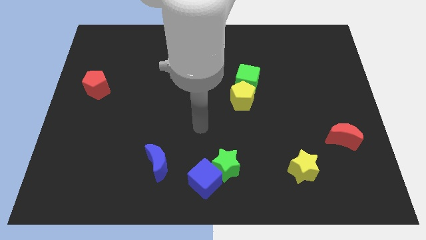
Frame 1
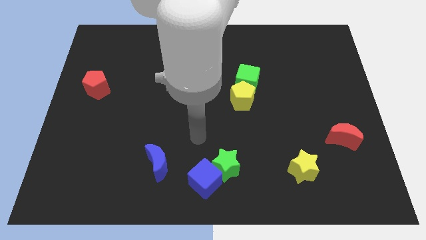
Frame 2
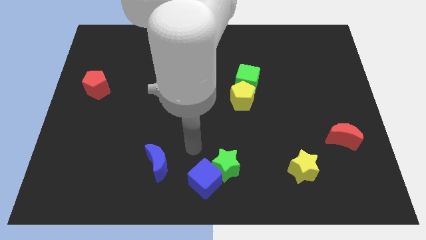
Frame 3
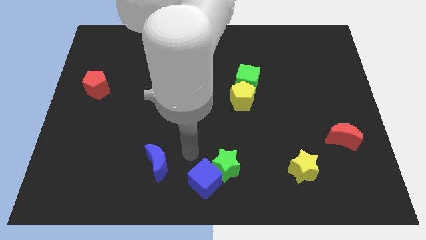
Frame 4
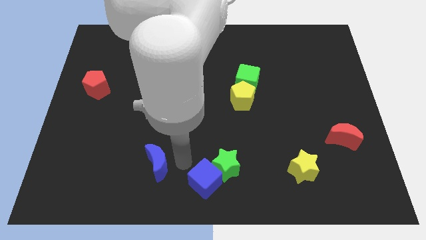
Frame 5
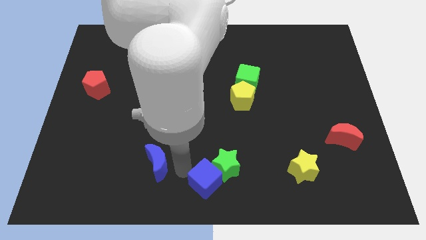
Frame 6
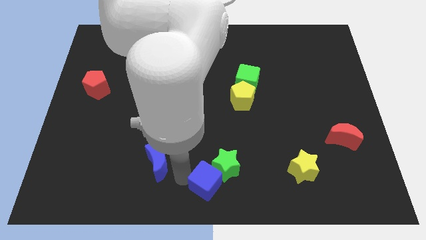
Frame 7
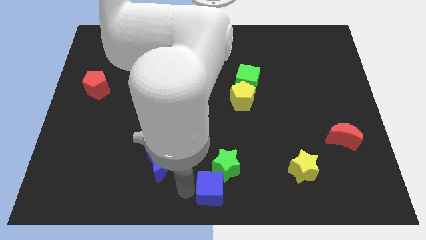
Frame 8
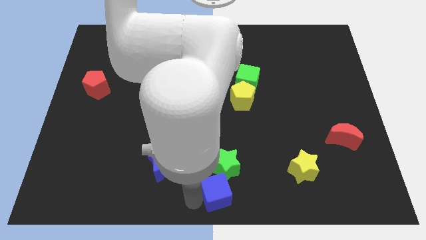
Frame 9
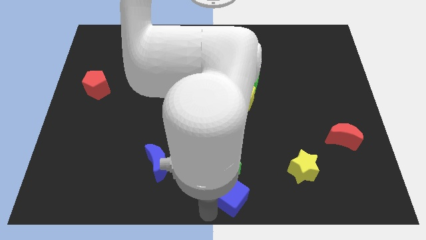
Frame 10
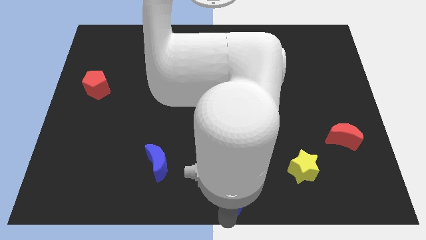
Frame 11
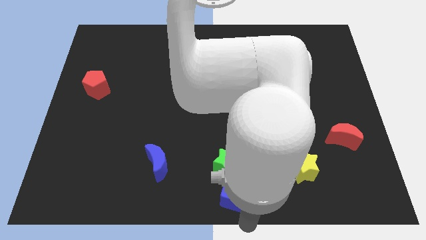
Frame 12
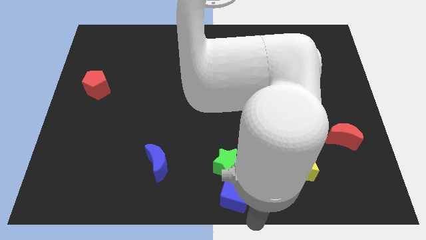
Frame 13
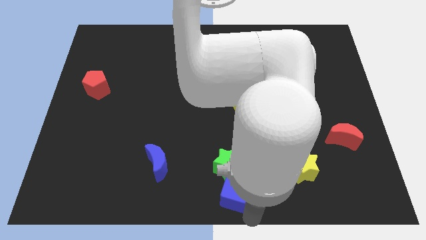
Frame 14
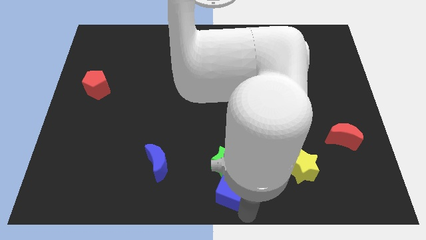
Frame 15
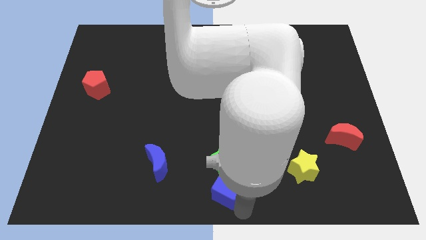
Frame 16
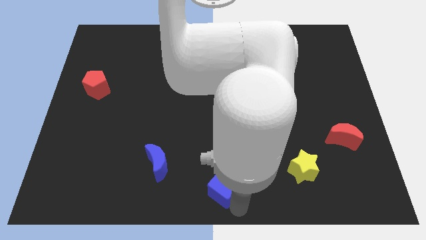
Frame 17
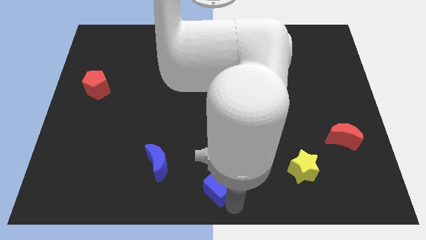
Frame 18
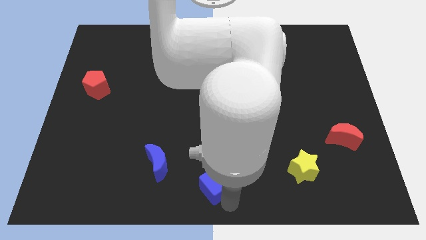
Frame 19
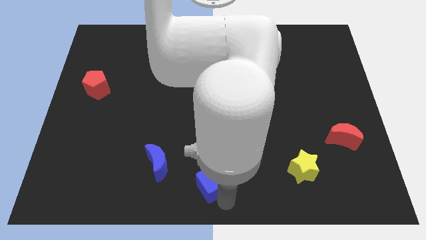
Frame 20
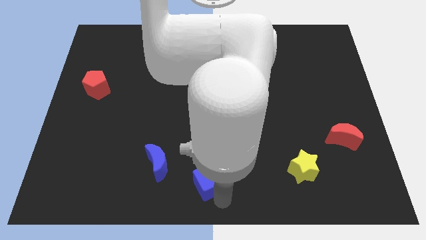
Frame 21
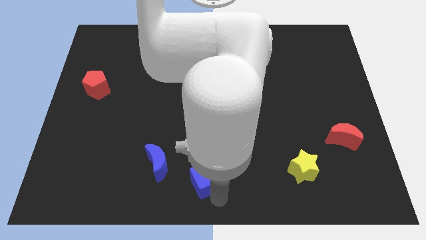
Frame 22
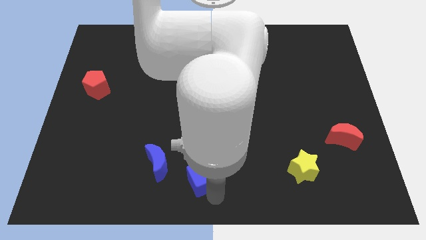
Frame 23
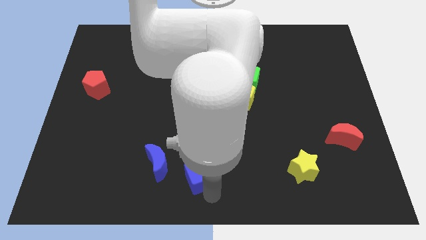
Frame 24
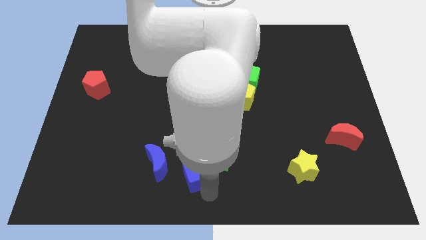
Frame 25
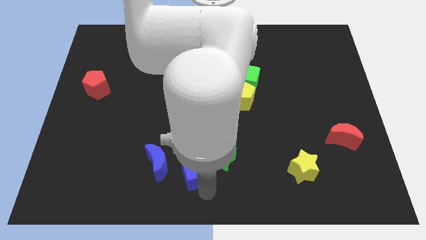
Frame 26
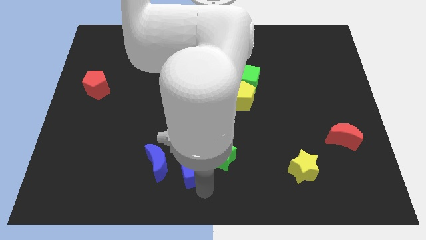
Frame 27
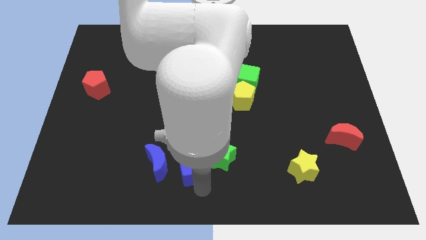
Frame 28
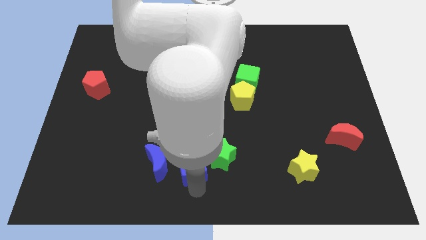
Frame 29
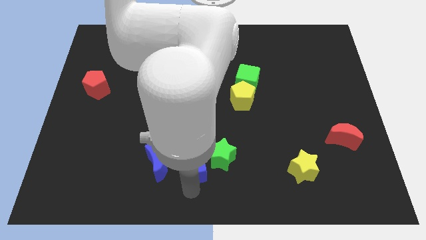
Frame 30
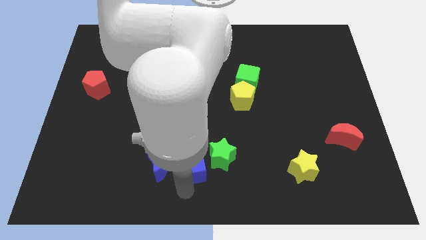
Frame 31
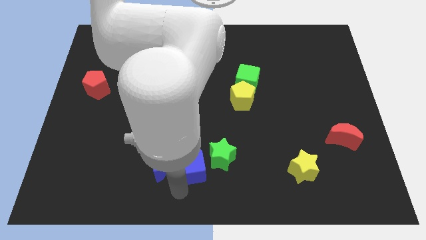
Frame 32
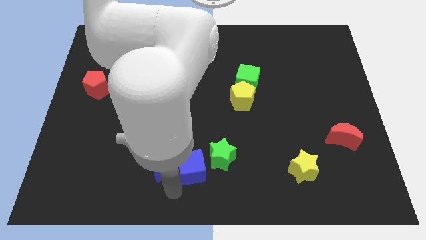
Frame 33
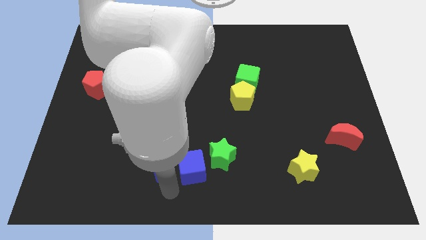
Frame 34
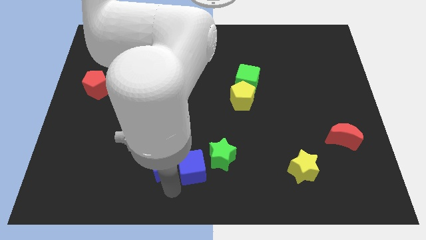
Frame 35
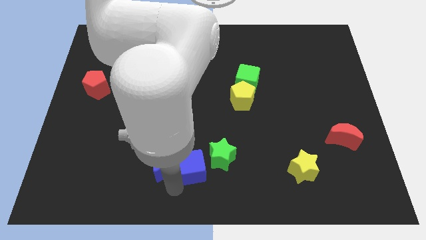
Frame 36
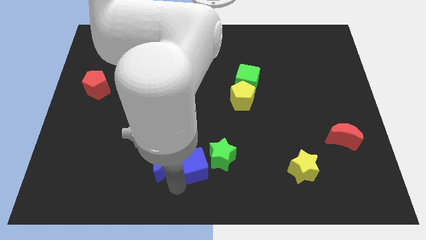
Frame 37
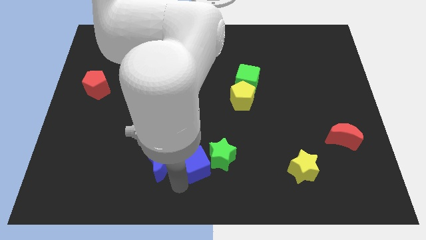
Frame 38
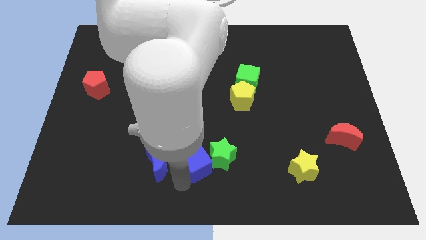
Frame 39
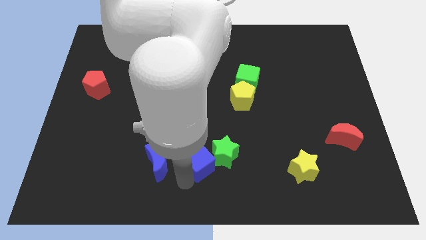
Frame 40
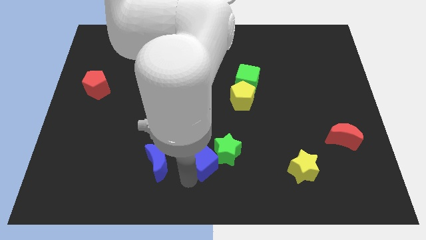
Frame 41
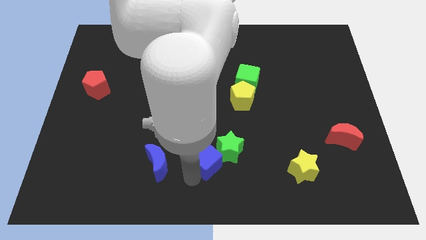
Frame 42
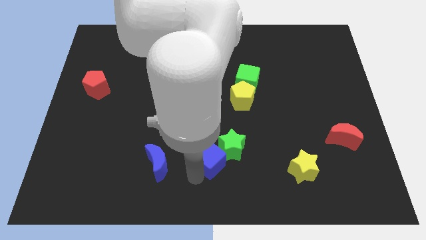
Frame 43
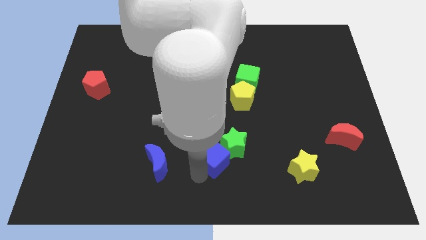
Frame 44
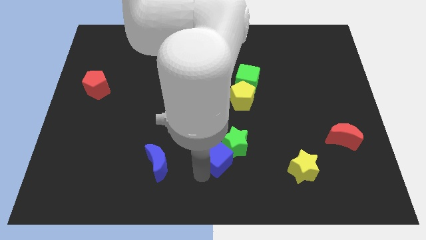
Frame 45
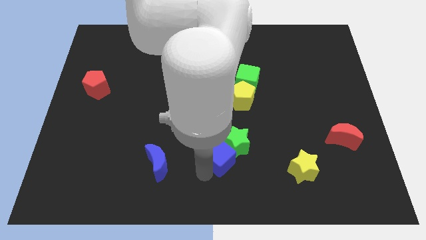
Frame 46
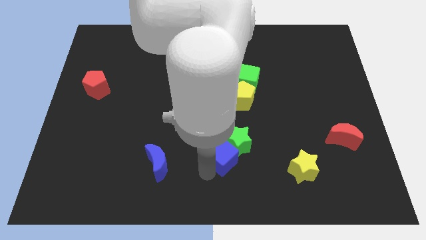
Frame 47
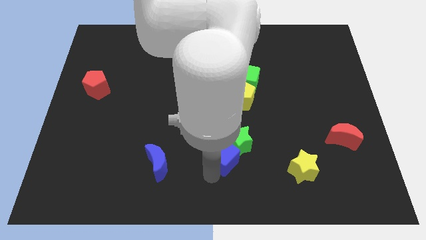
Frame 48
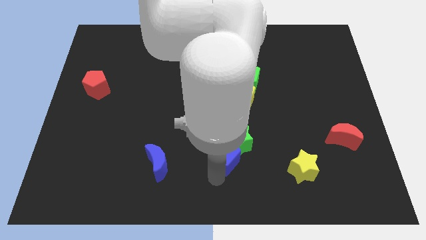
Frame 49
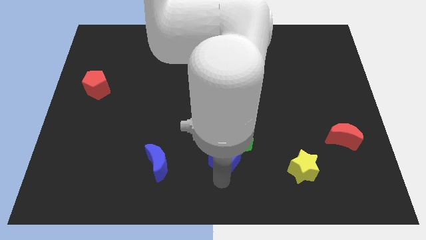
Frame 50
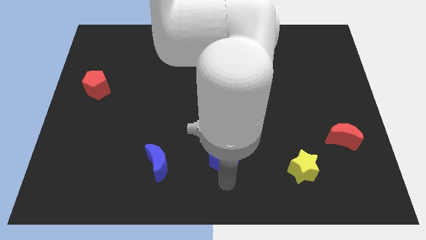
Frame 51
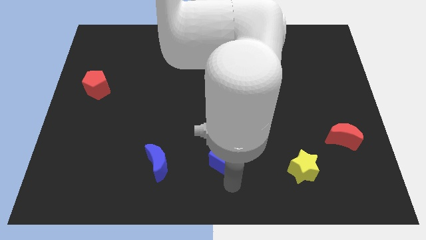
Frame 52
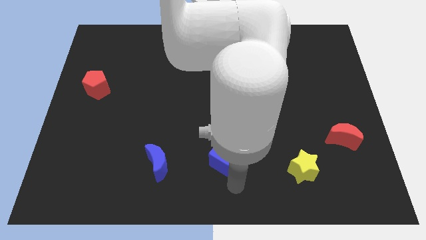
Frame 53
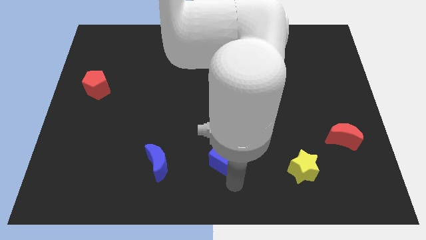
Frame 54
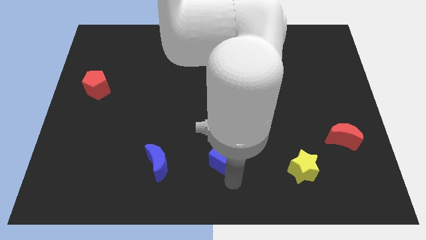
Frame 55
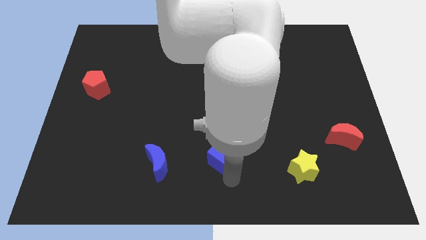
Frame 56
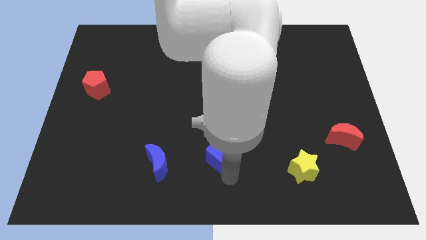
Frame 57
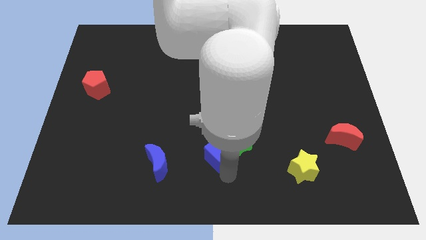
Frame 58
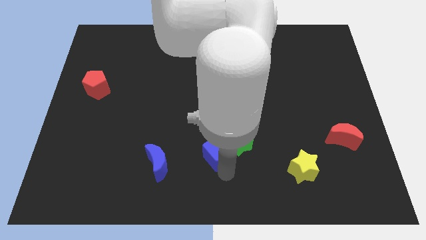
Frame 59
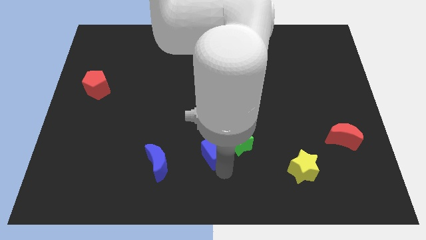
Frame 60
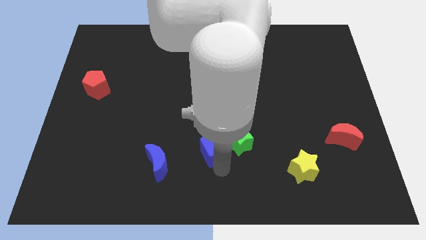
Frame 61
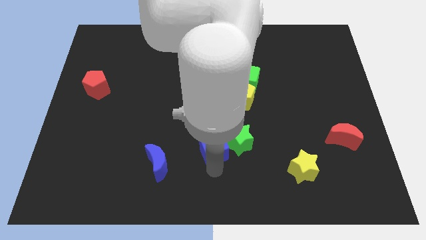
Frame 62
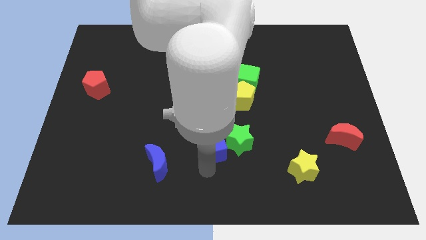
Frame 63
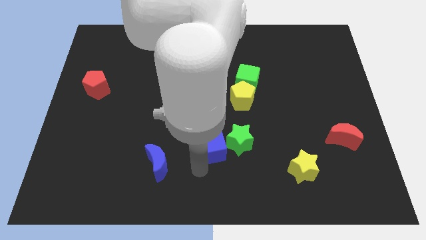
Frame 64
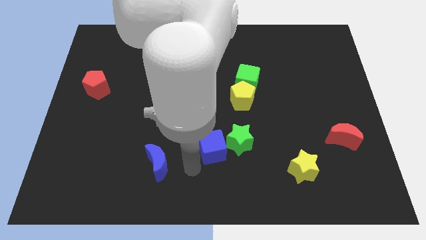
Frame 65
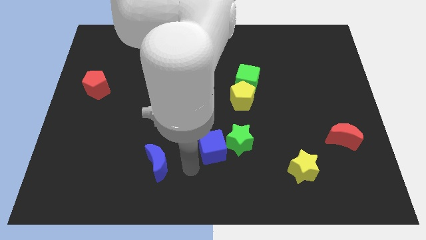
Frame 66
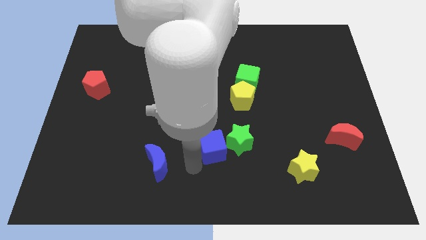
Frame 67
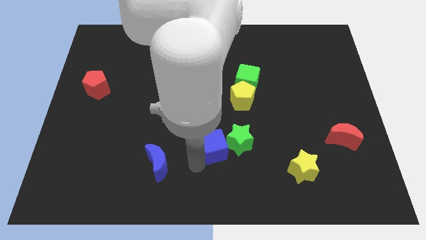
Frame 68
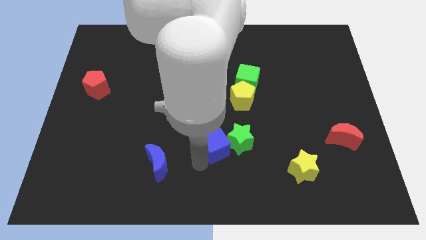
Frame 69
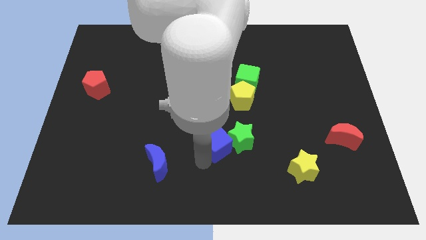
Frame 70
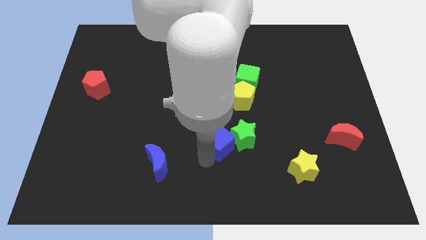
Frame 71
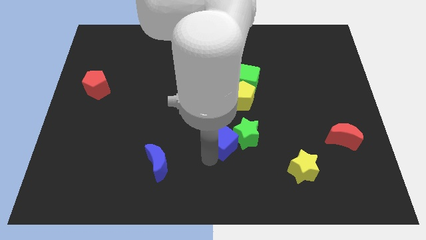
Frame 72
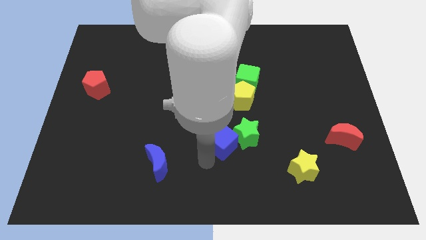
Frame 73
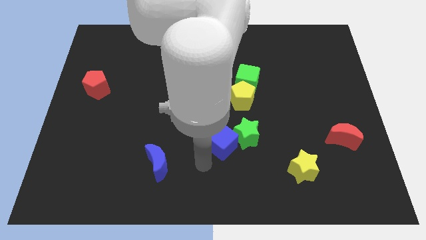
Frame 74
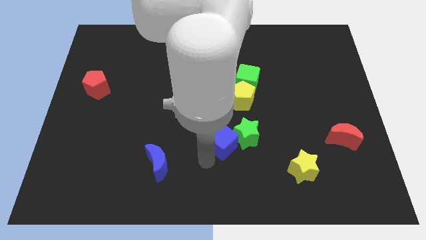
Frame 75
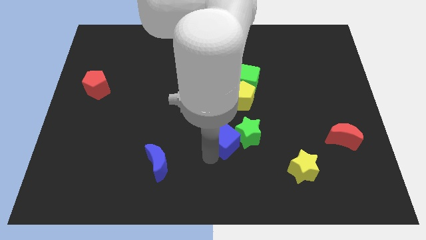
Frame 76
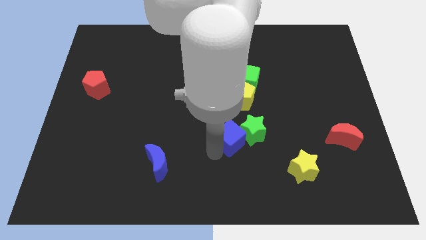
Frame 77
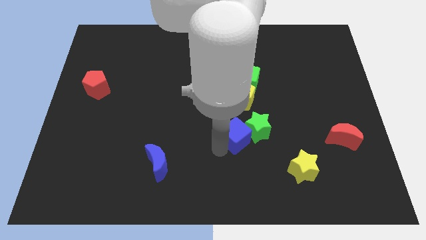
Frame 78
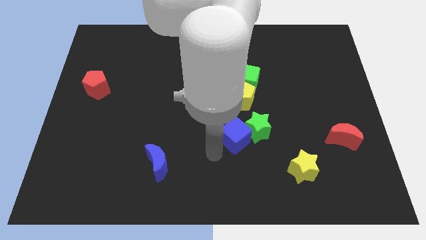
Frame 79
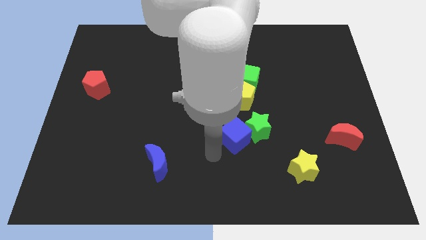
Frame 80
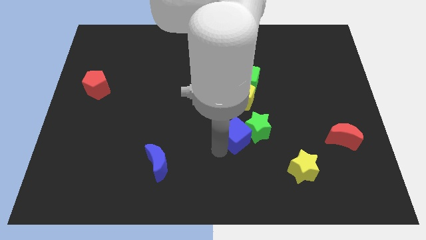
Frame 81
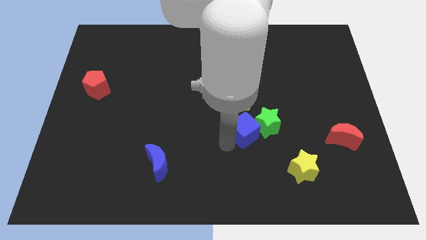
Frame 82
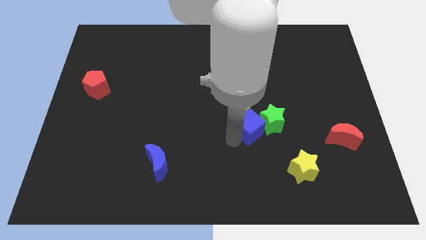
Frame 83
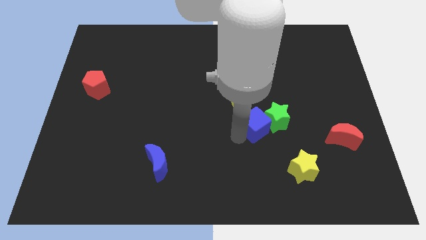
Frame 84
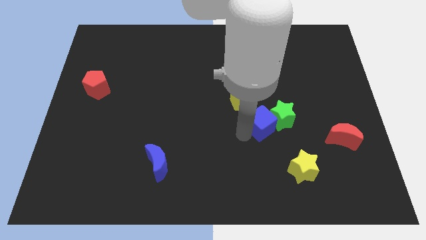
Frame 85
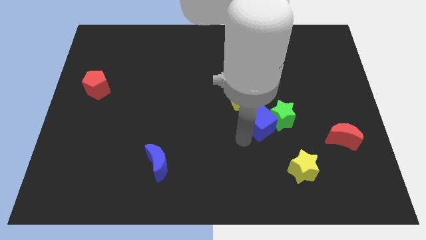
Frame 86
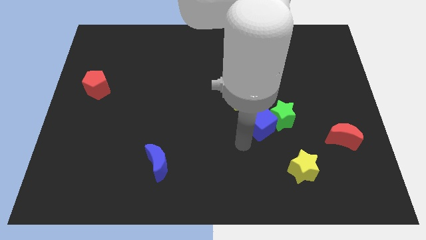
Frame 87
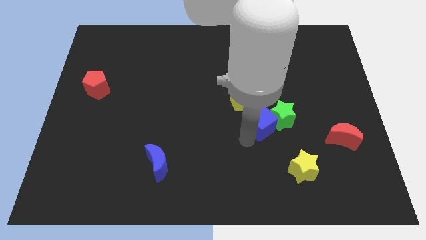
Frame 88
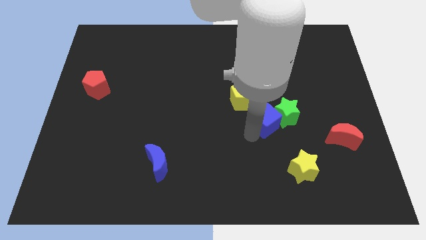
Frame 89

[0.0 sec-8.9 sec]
slide the blue cube upwards and then right
